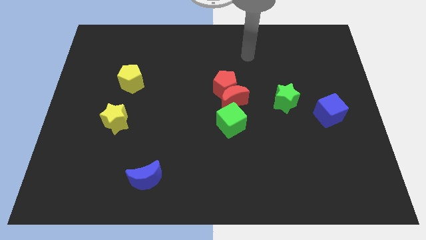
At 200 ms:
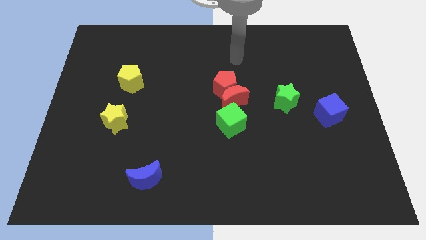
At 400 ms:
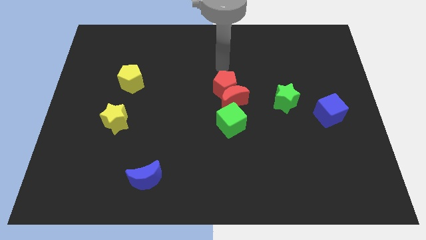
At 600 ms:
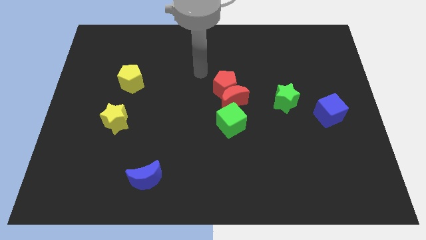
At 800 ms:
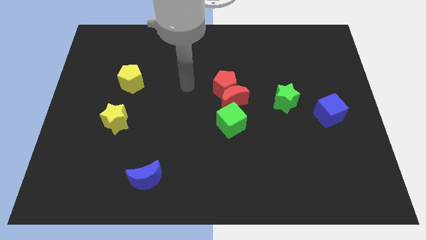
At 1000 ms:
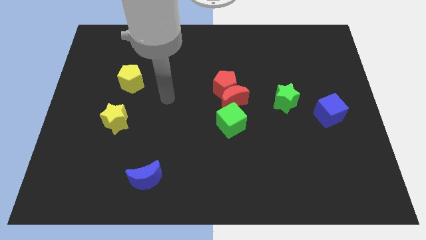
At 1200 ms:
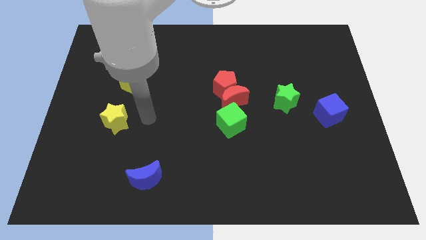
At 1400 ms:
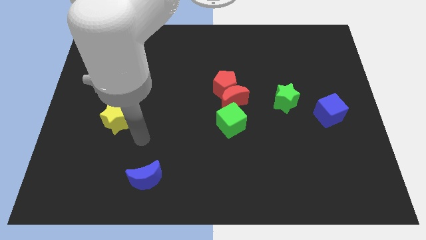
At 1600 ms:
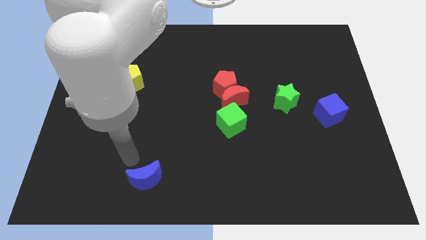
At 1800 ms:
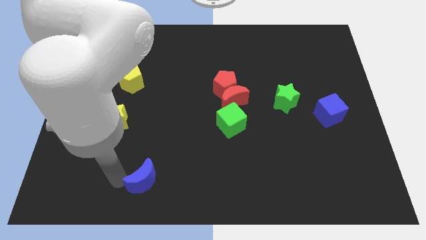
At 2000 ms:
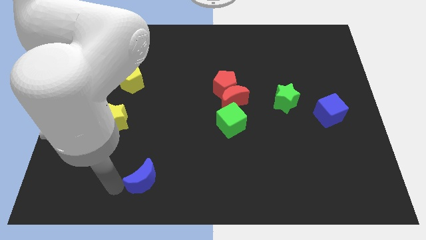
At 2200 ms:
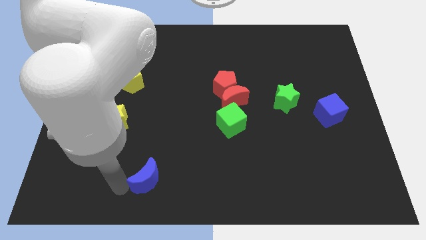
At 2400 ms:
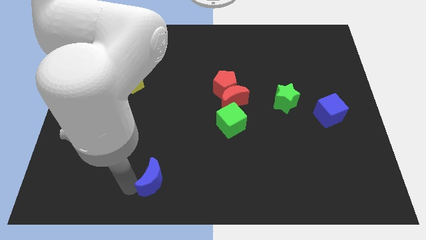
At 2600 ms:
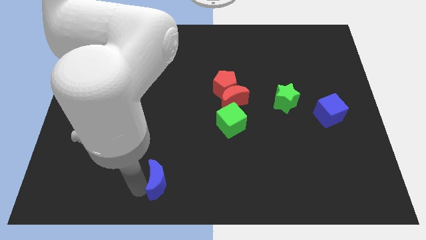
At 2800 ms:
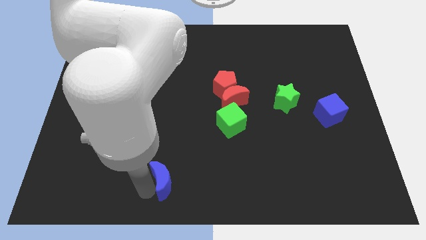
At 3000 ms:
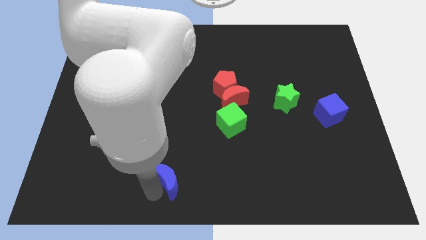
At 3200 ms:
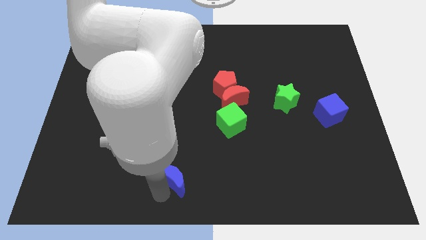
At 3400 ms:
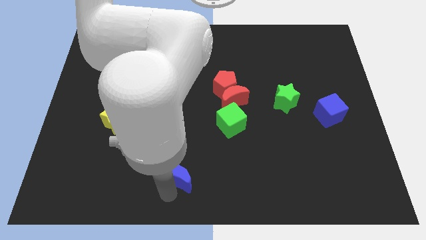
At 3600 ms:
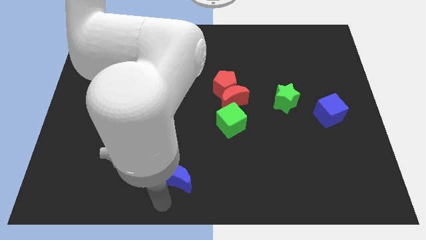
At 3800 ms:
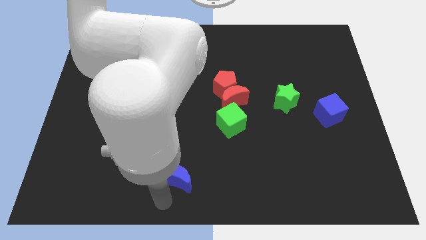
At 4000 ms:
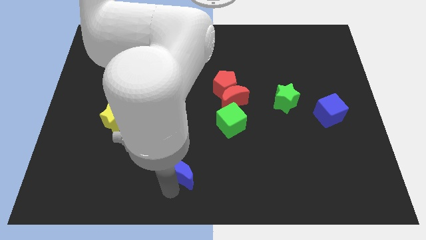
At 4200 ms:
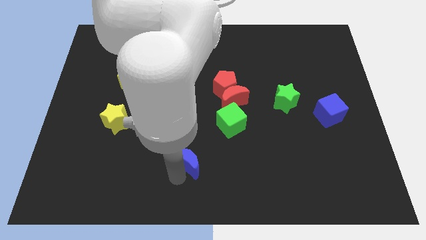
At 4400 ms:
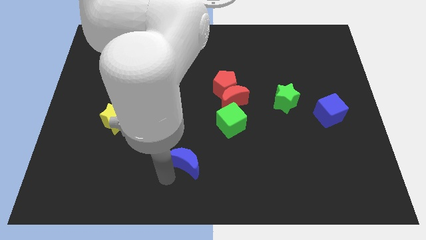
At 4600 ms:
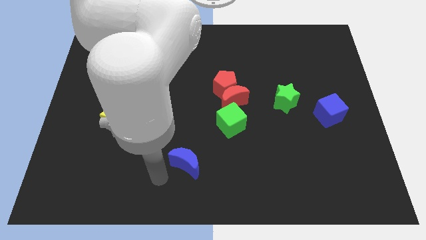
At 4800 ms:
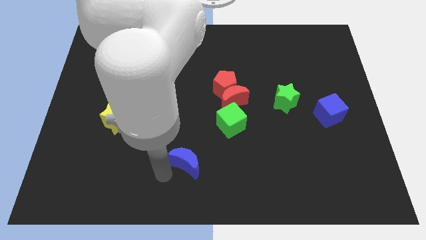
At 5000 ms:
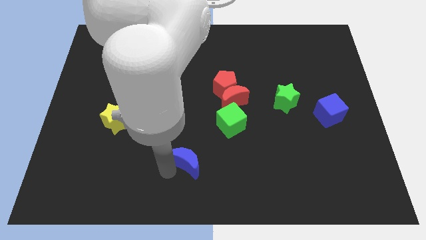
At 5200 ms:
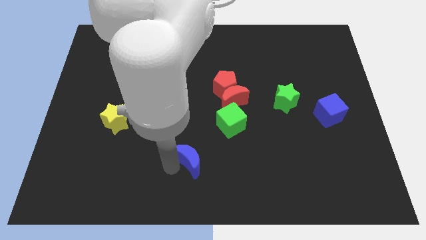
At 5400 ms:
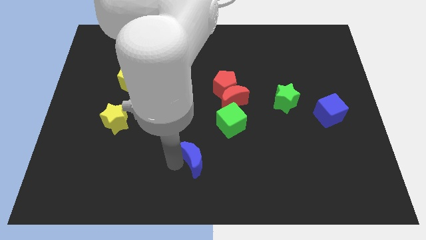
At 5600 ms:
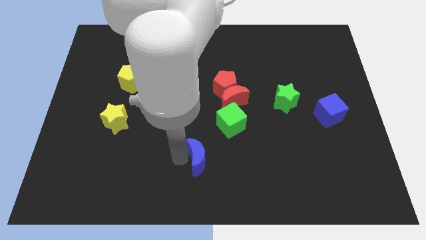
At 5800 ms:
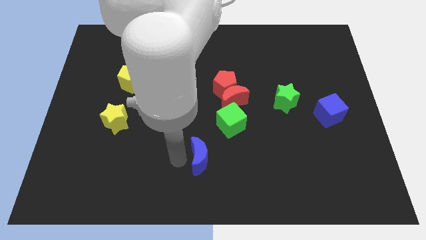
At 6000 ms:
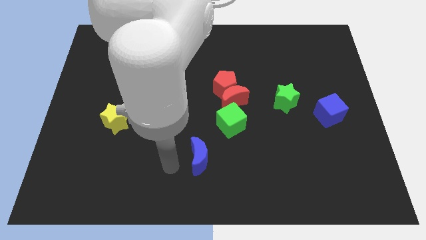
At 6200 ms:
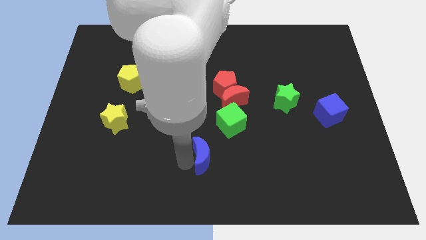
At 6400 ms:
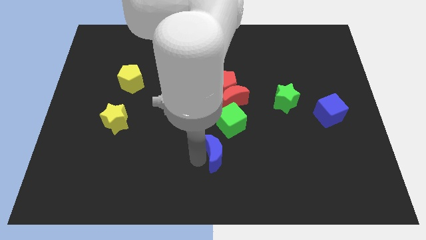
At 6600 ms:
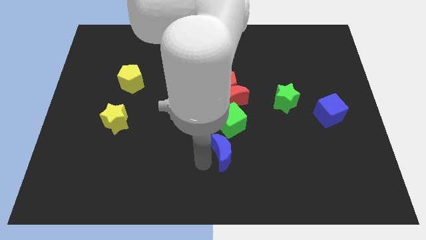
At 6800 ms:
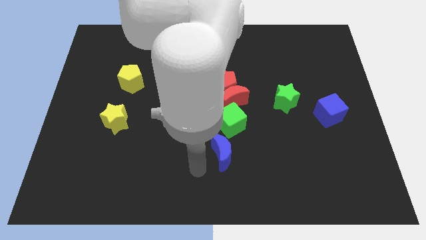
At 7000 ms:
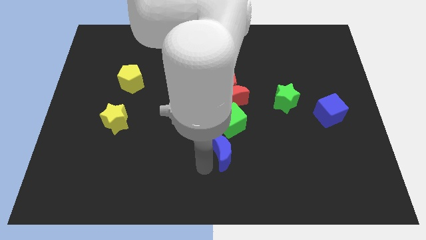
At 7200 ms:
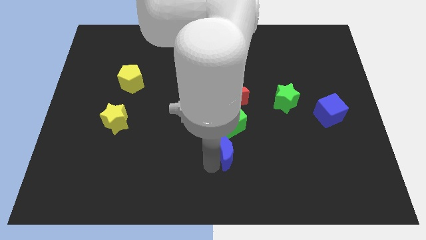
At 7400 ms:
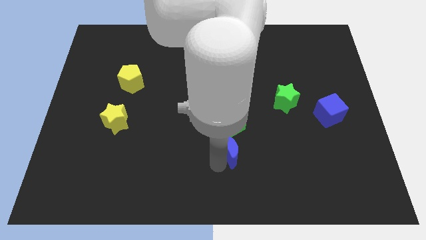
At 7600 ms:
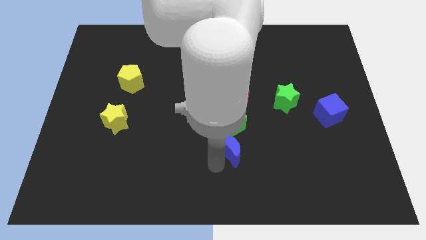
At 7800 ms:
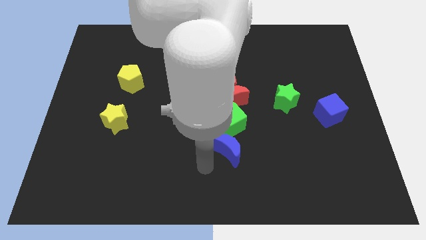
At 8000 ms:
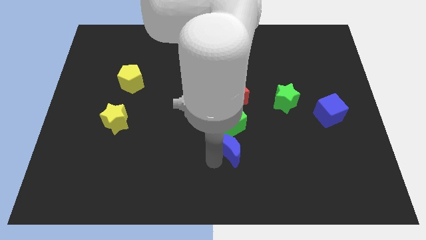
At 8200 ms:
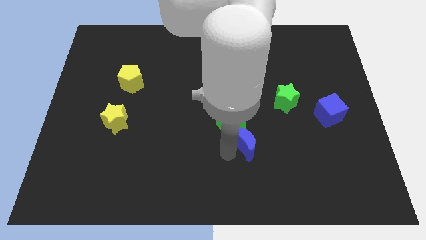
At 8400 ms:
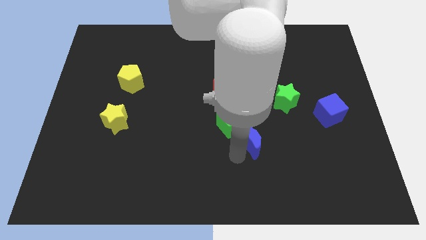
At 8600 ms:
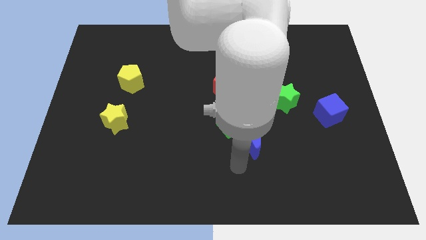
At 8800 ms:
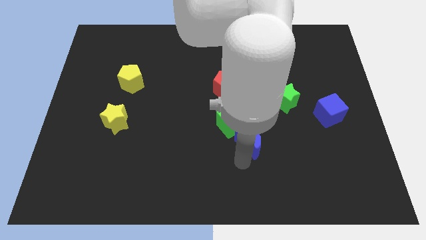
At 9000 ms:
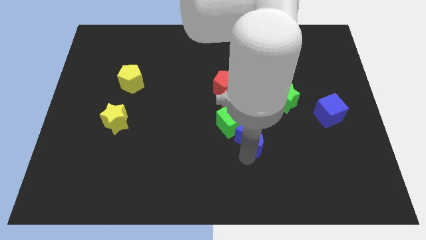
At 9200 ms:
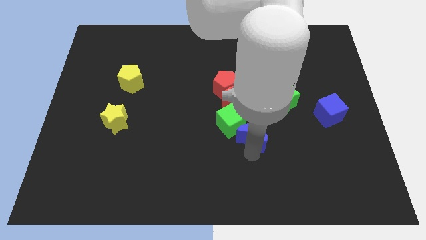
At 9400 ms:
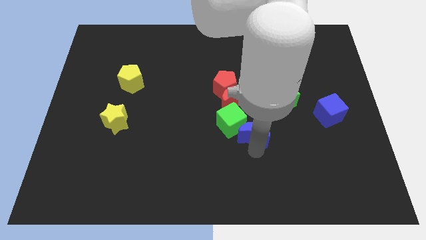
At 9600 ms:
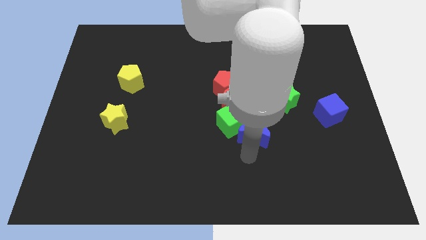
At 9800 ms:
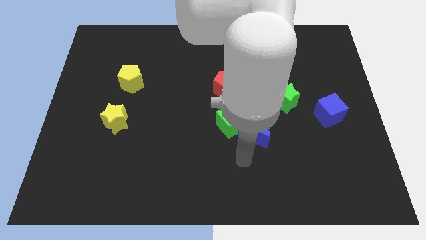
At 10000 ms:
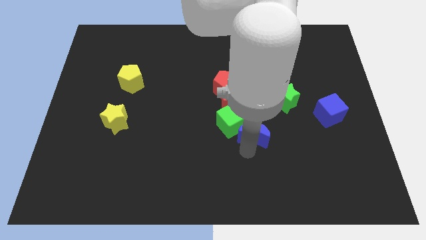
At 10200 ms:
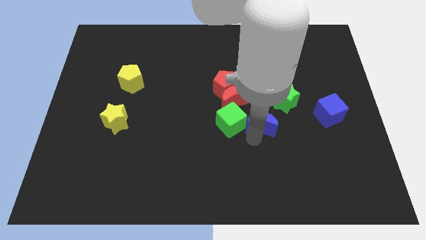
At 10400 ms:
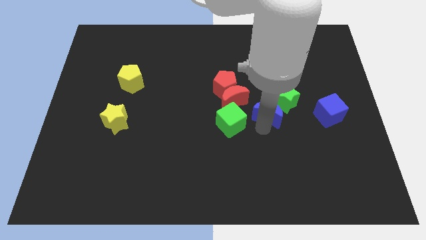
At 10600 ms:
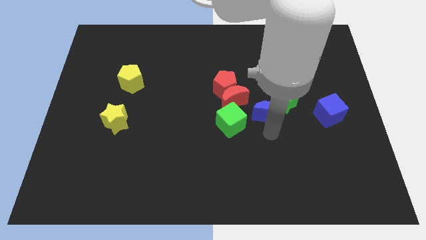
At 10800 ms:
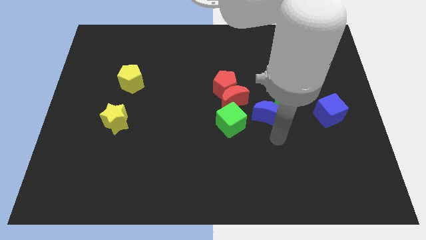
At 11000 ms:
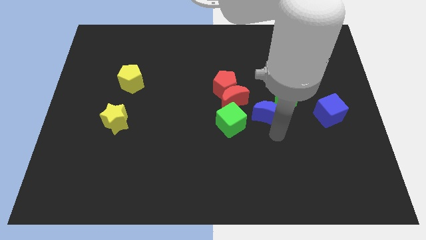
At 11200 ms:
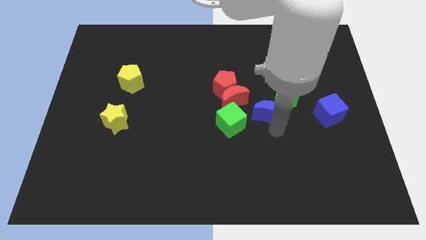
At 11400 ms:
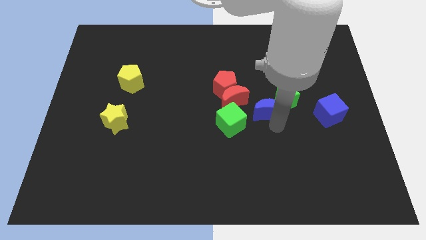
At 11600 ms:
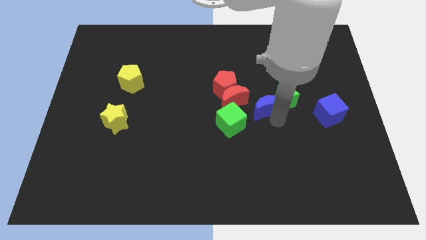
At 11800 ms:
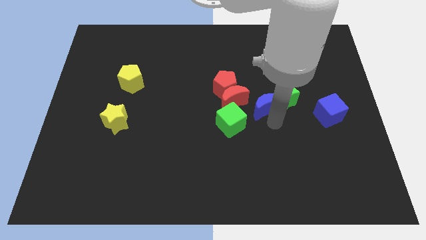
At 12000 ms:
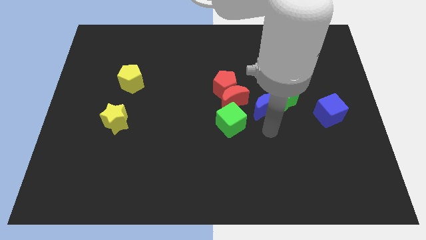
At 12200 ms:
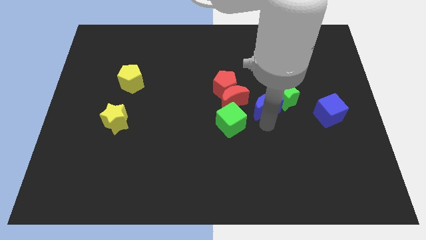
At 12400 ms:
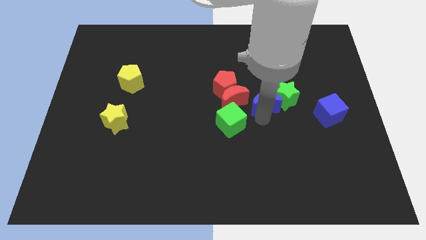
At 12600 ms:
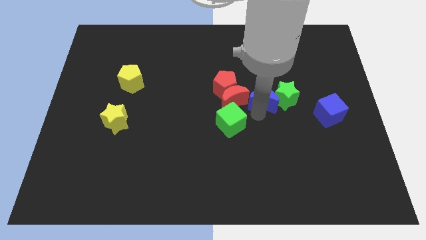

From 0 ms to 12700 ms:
slide the blue moon to the top left of the green star

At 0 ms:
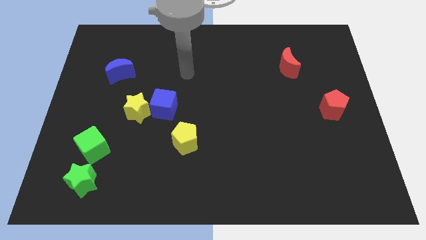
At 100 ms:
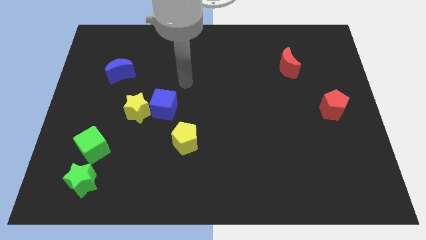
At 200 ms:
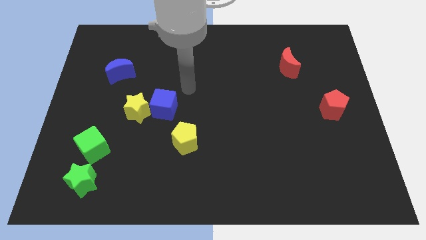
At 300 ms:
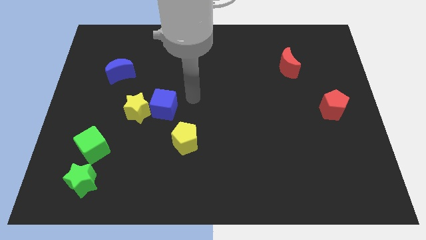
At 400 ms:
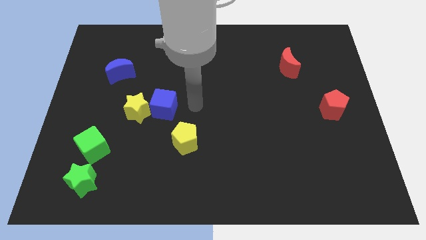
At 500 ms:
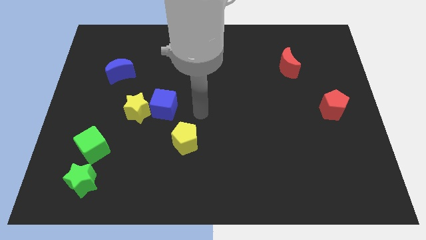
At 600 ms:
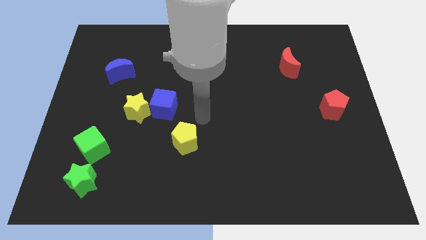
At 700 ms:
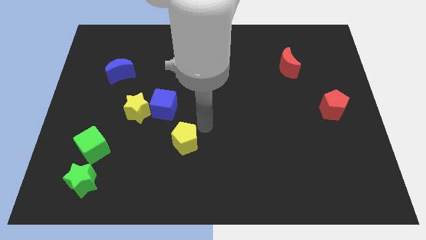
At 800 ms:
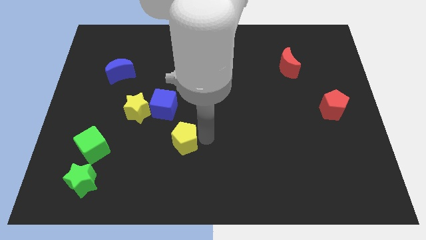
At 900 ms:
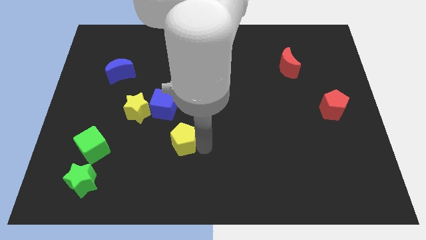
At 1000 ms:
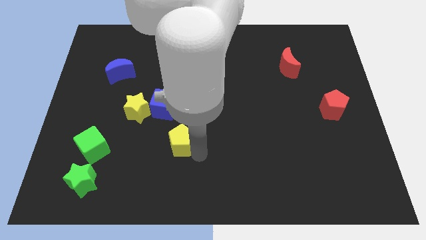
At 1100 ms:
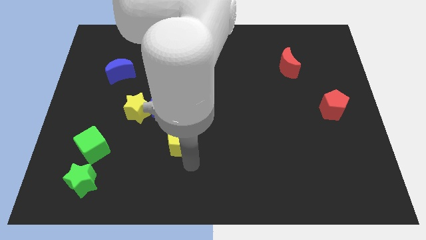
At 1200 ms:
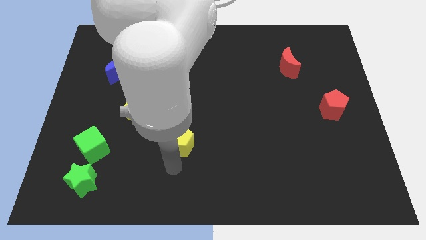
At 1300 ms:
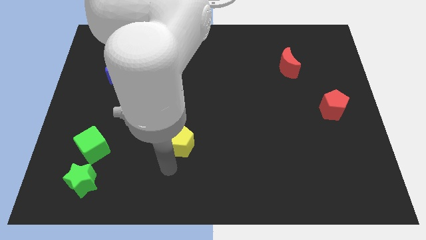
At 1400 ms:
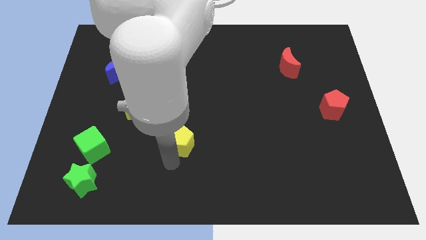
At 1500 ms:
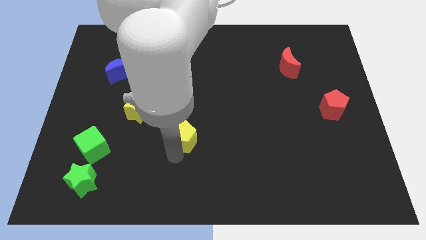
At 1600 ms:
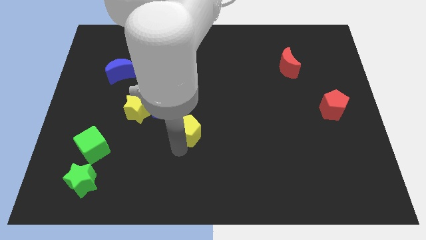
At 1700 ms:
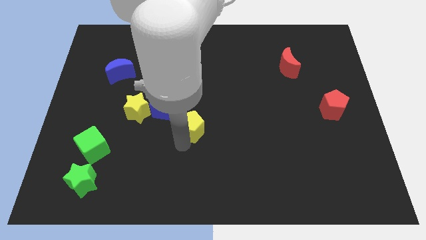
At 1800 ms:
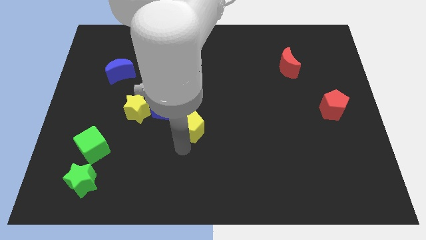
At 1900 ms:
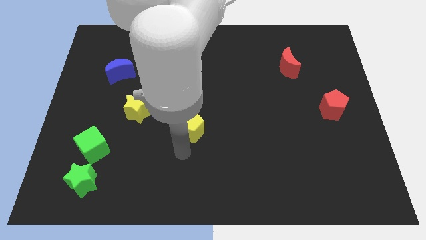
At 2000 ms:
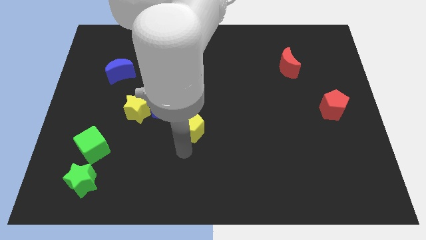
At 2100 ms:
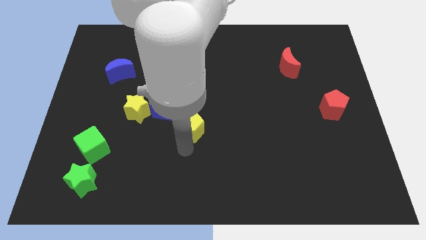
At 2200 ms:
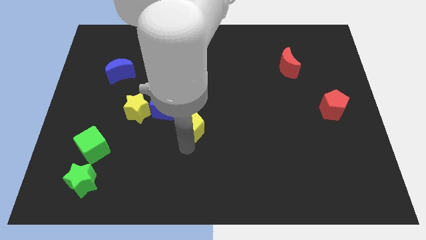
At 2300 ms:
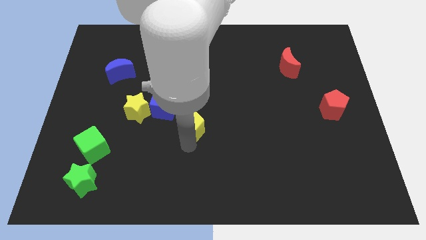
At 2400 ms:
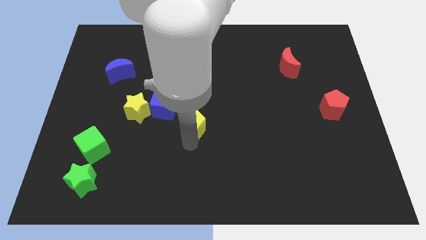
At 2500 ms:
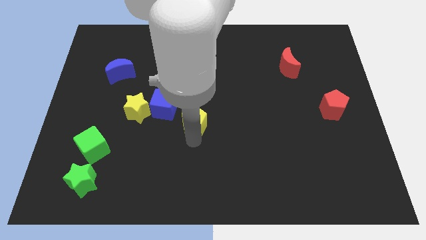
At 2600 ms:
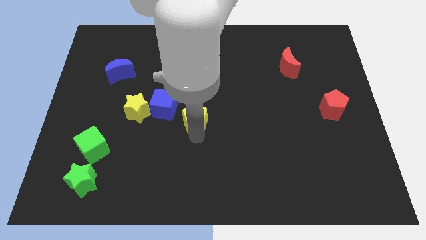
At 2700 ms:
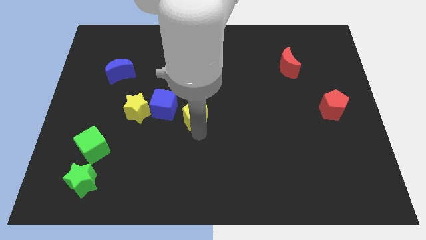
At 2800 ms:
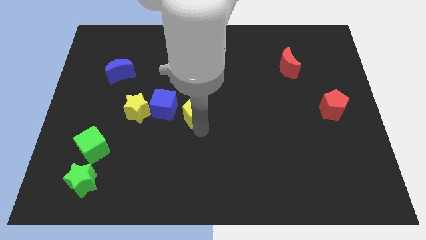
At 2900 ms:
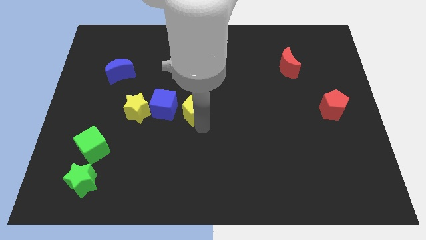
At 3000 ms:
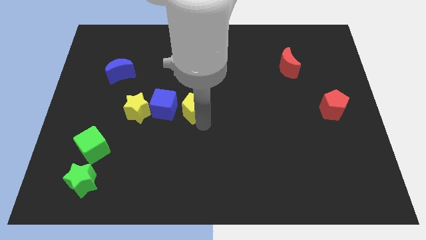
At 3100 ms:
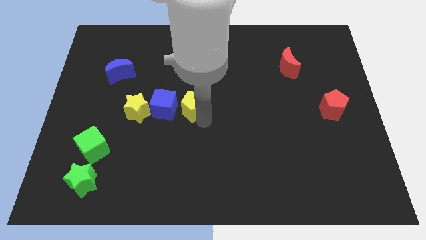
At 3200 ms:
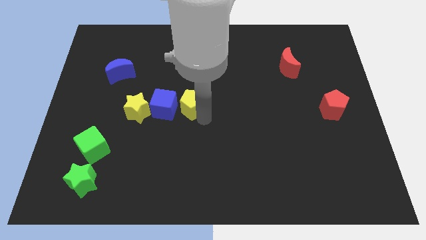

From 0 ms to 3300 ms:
move the yellow pentagon to the top right of the blue cube
